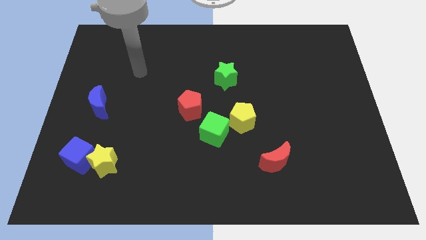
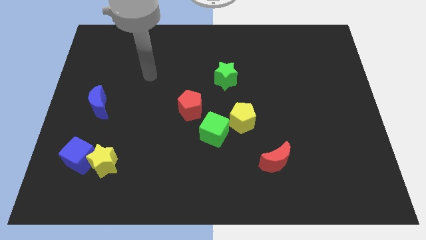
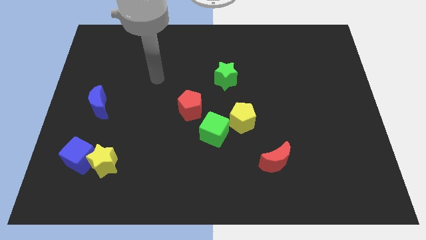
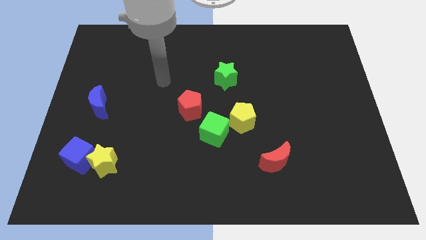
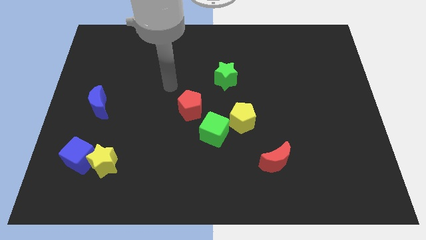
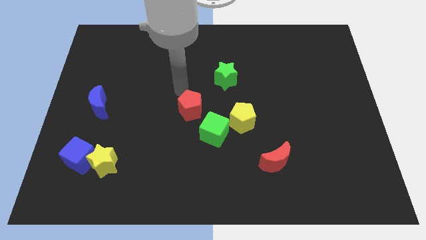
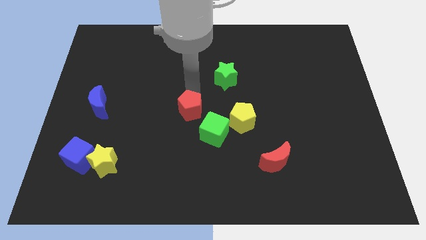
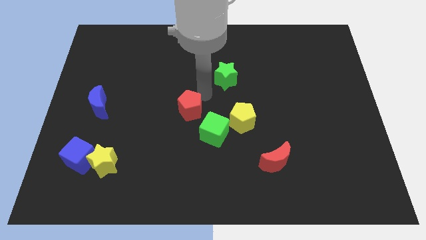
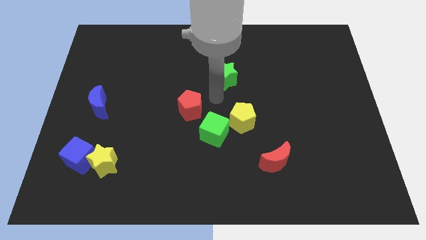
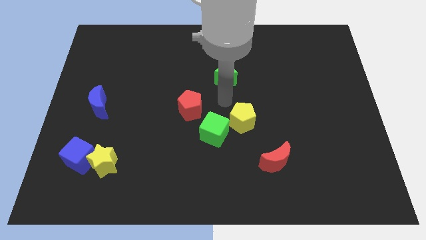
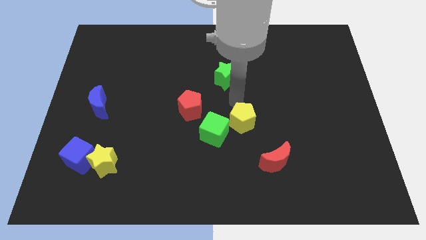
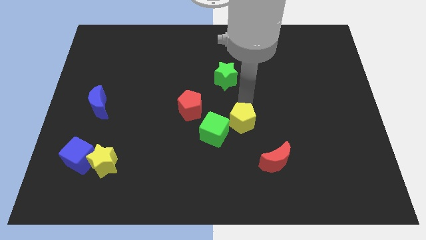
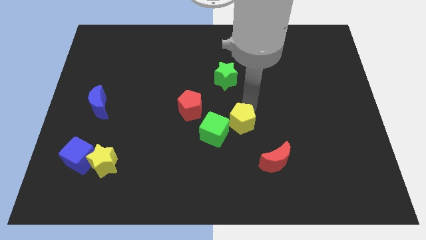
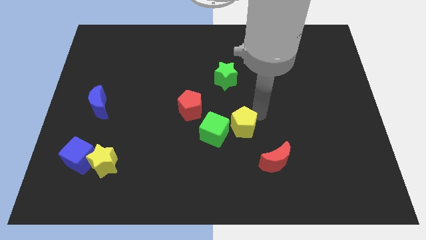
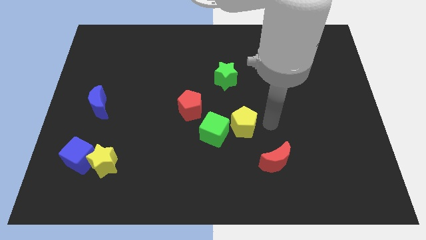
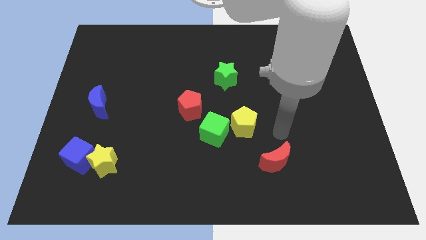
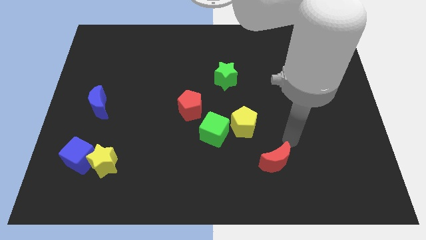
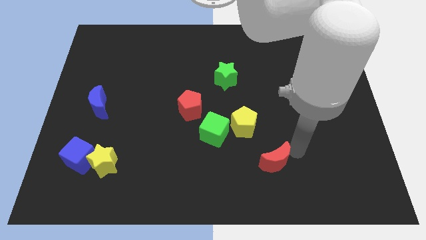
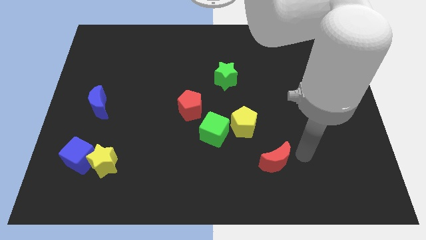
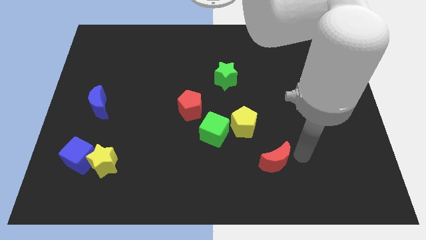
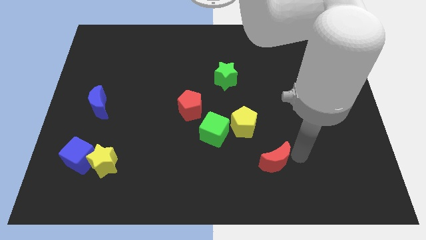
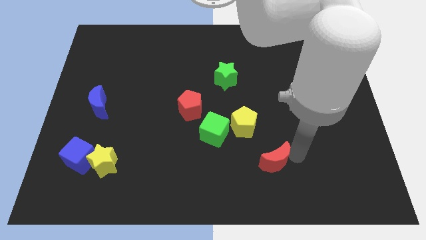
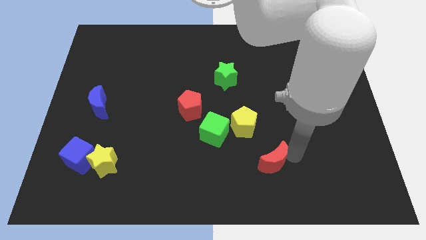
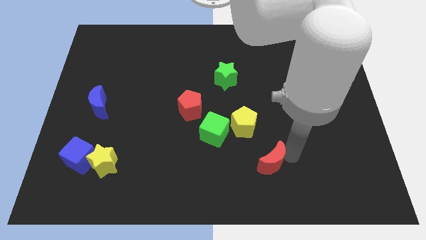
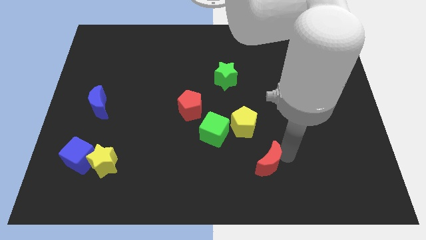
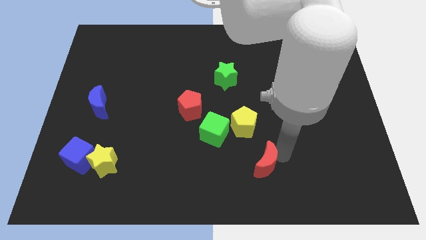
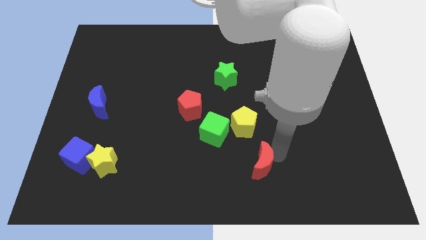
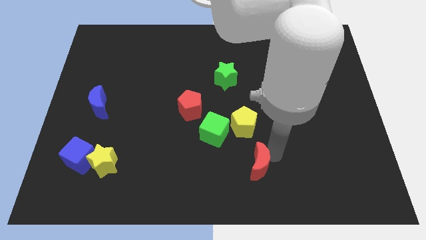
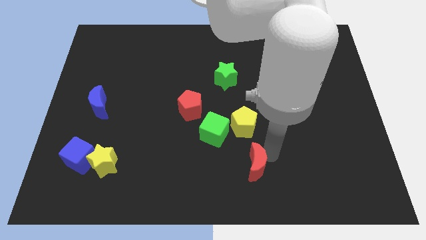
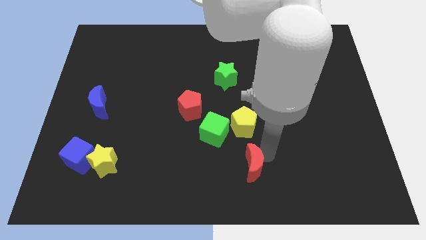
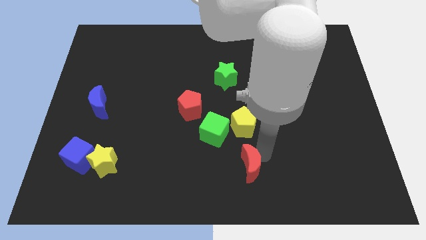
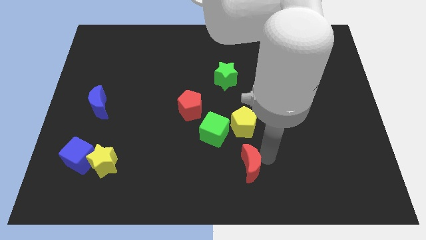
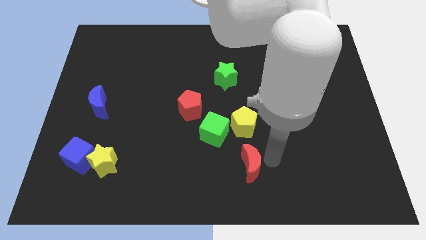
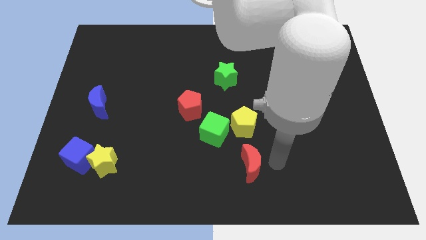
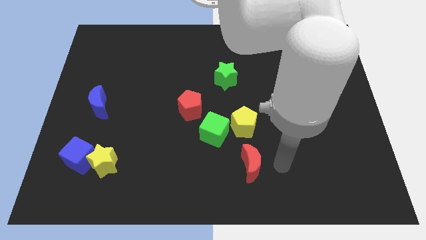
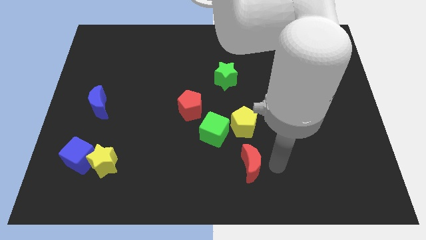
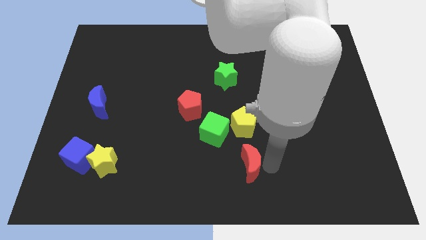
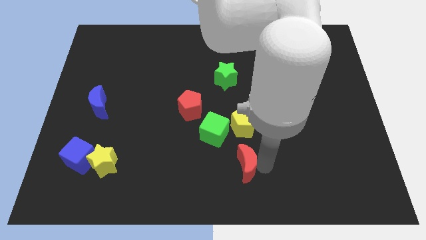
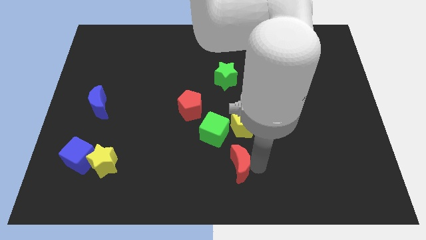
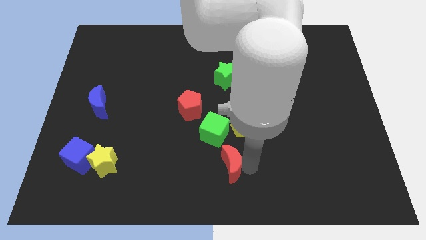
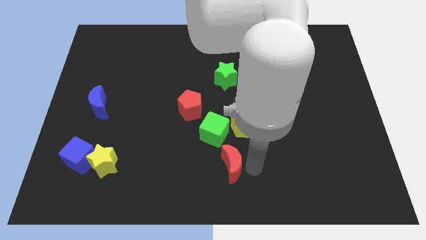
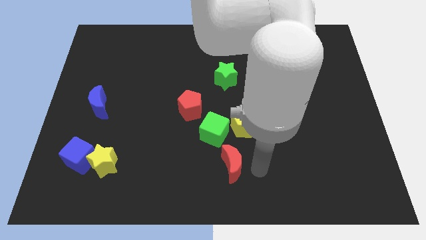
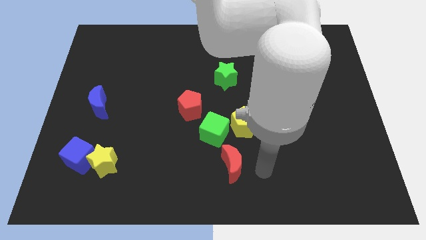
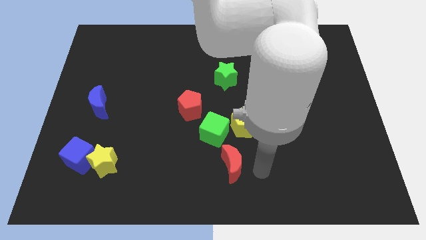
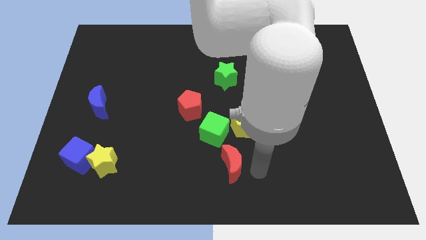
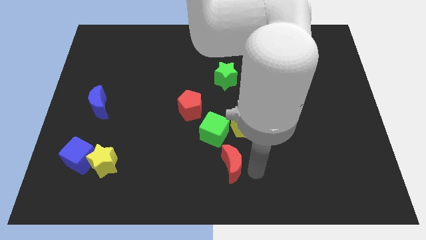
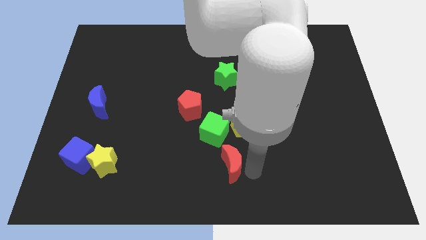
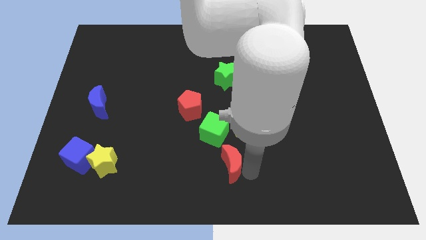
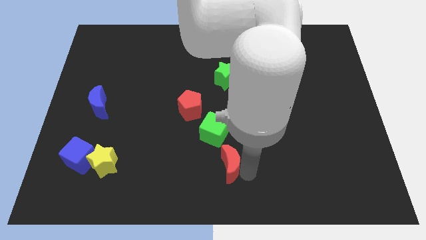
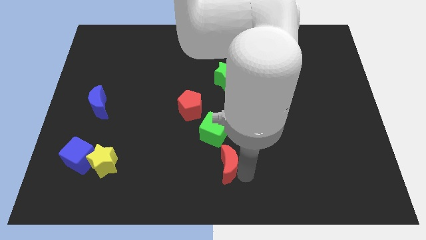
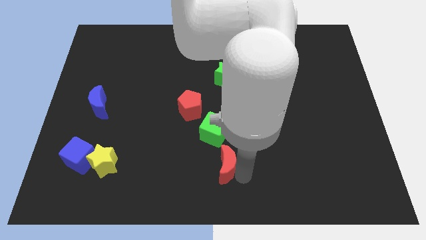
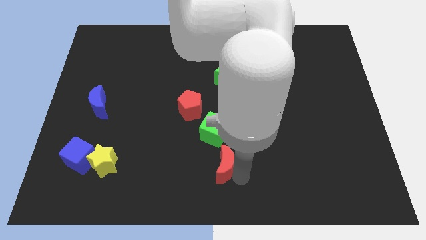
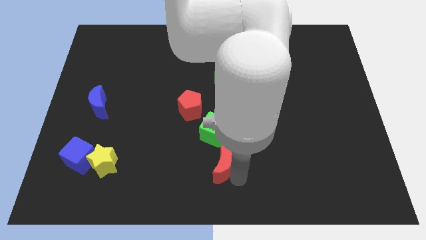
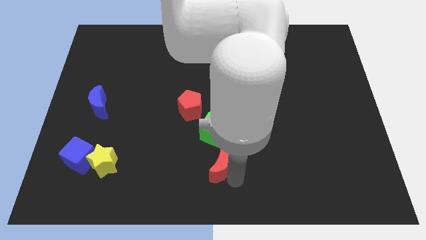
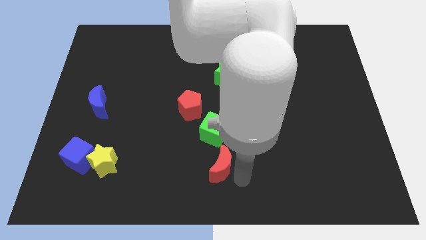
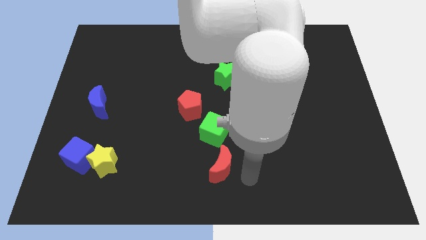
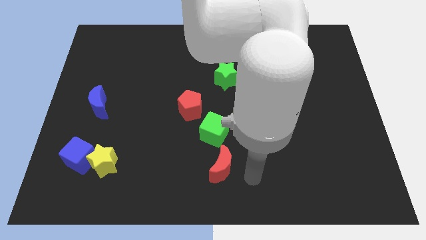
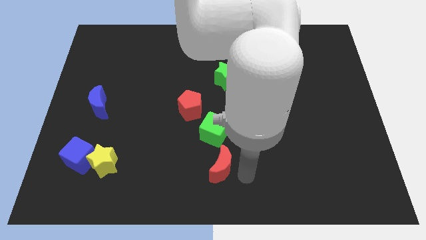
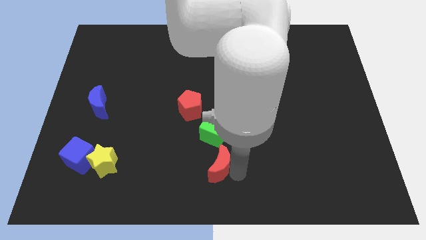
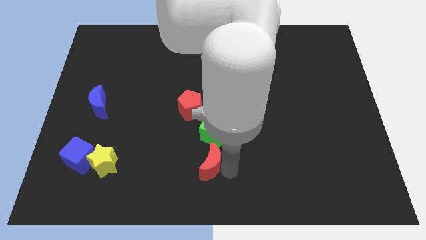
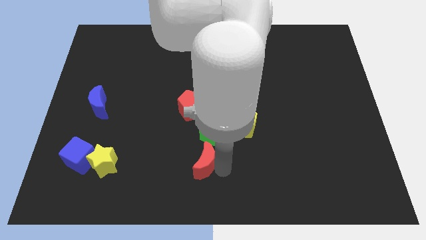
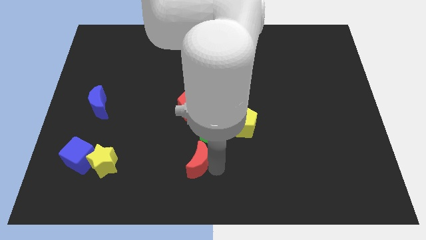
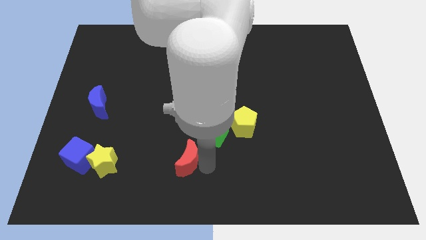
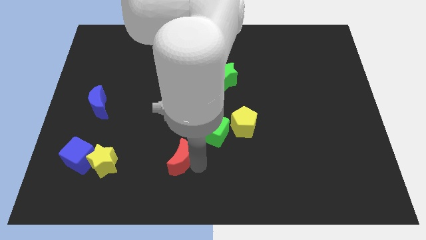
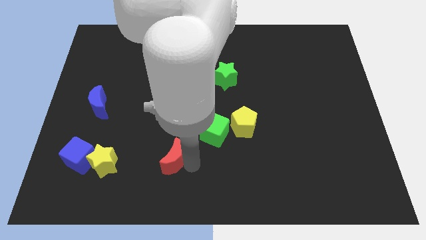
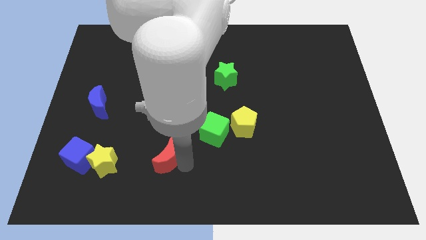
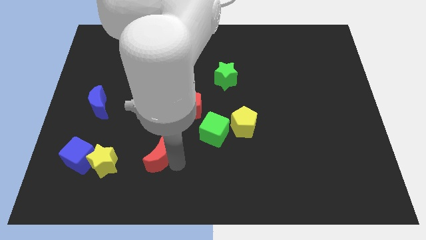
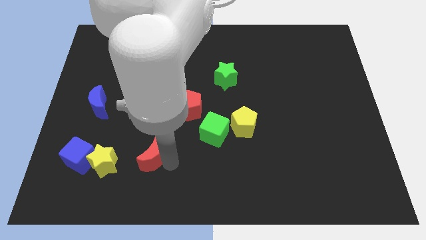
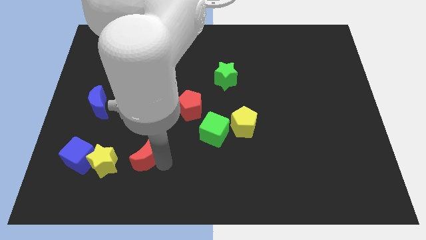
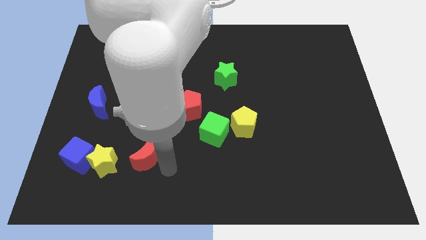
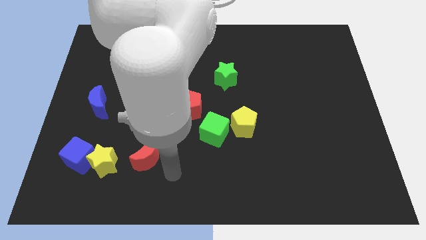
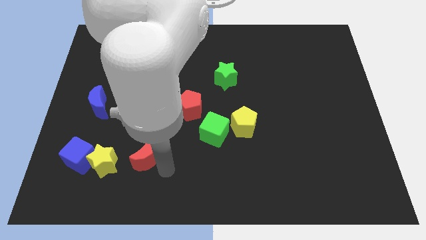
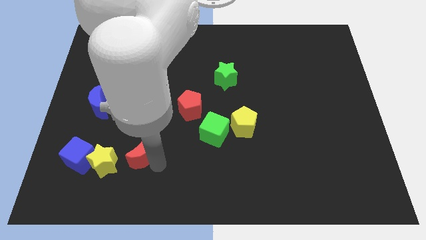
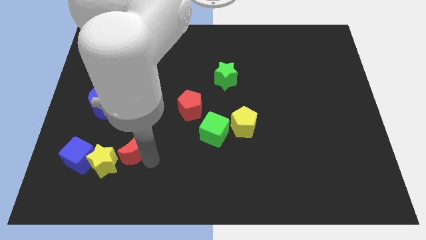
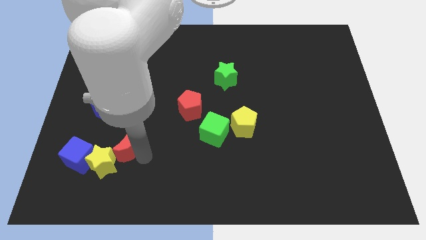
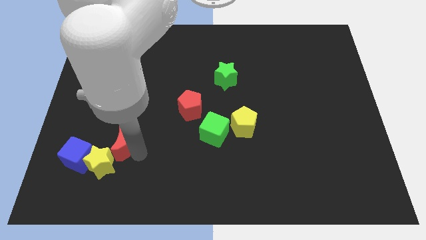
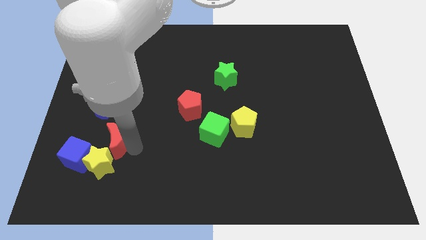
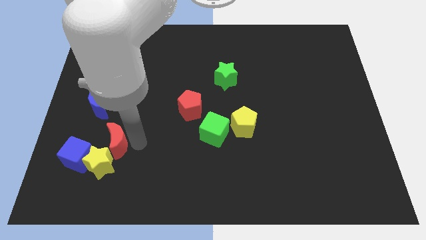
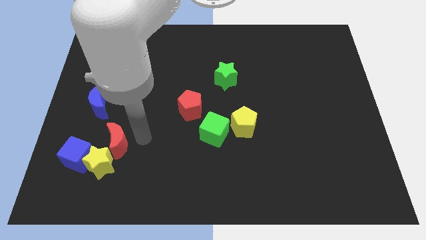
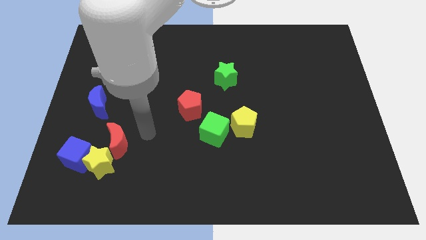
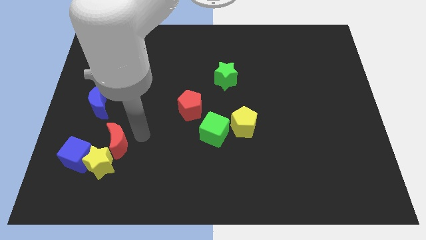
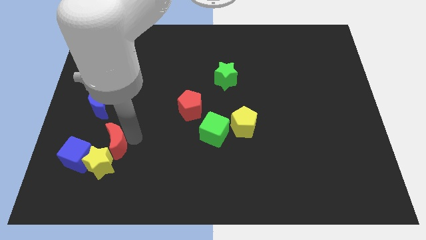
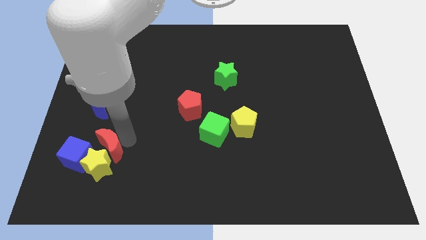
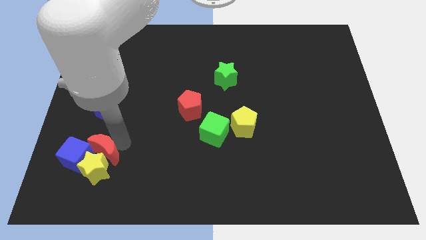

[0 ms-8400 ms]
slide the red moon to the blue cube
